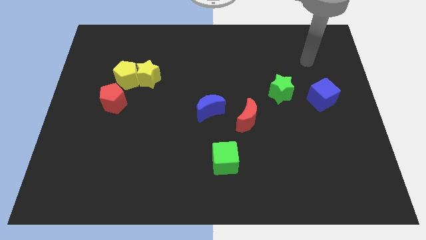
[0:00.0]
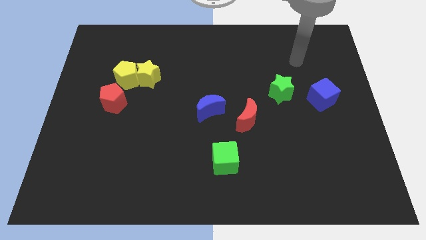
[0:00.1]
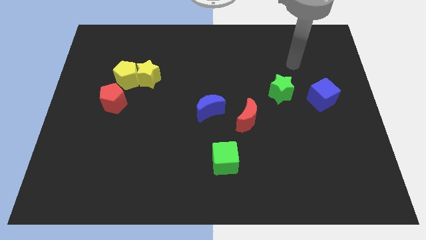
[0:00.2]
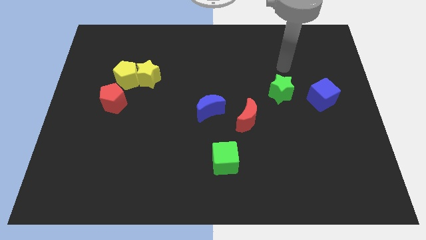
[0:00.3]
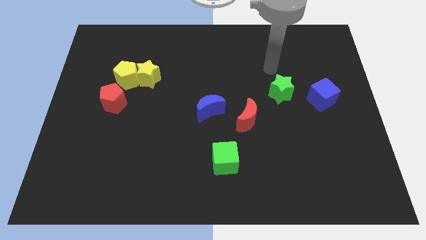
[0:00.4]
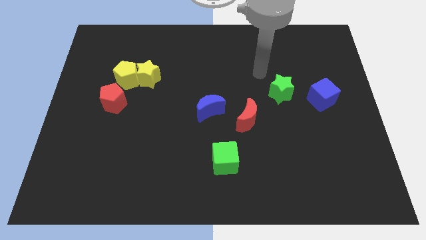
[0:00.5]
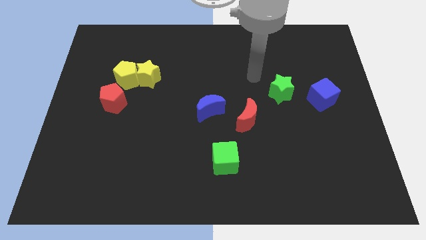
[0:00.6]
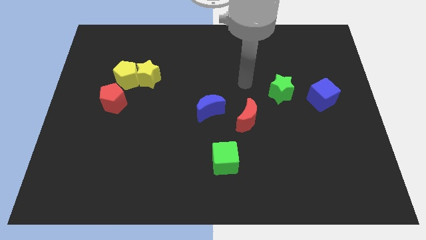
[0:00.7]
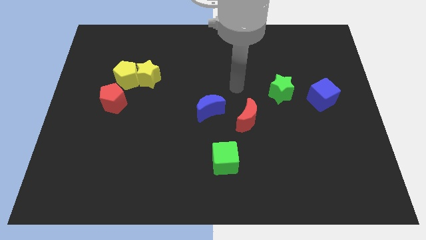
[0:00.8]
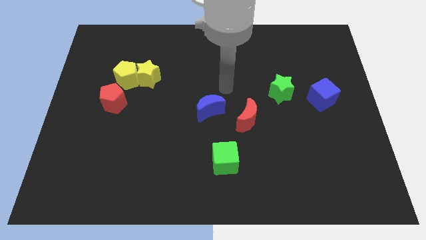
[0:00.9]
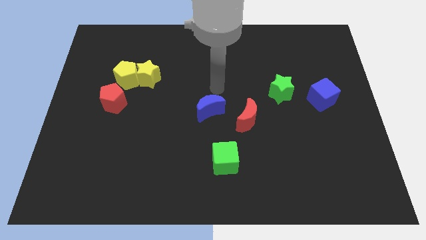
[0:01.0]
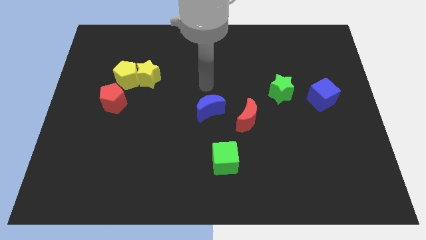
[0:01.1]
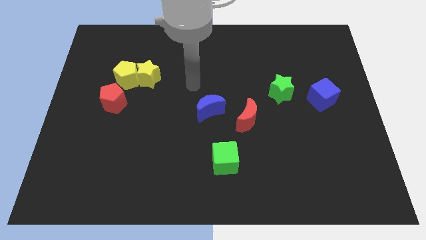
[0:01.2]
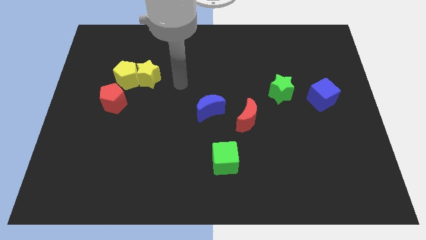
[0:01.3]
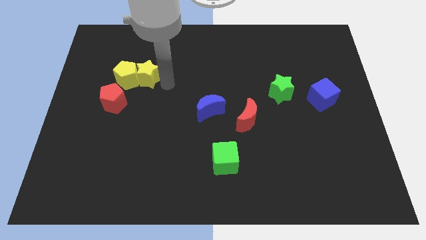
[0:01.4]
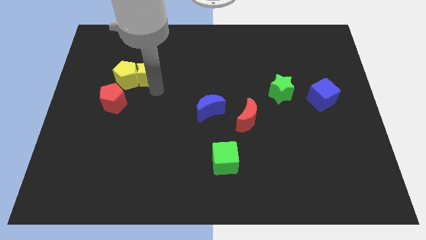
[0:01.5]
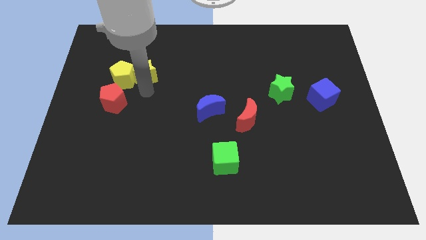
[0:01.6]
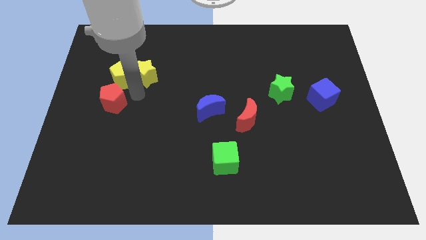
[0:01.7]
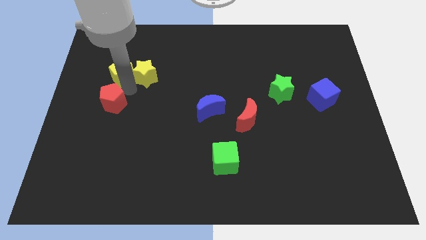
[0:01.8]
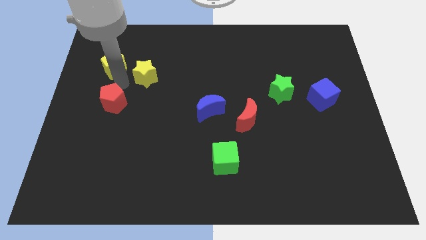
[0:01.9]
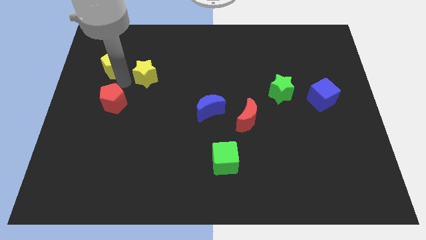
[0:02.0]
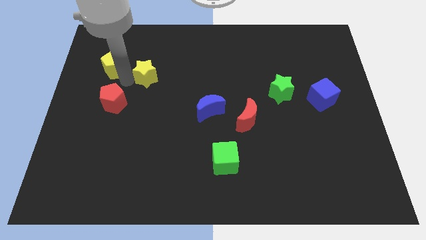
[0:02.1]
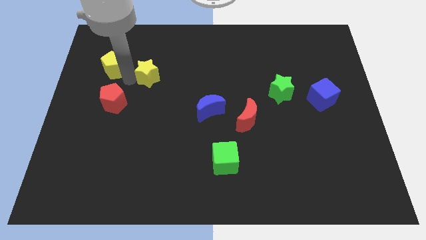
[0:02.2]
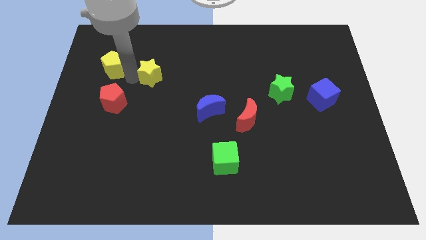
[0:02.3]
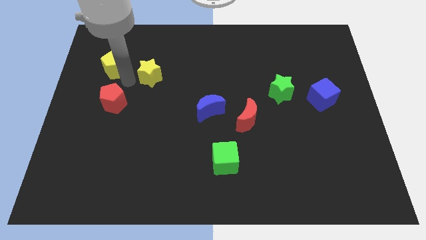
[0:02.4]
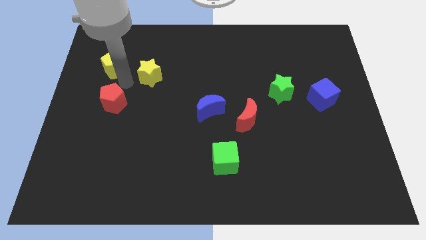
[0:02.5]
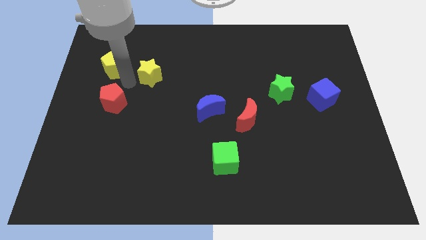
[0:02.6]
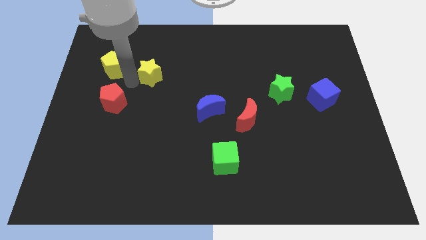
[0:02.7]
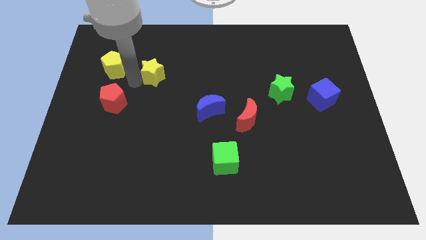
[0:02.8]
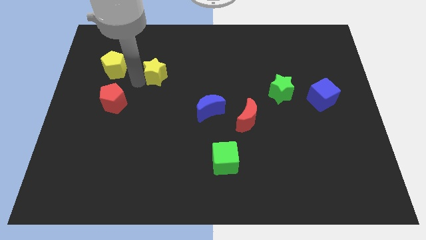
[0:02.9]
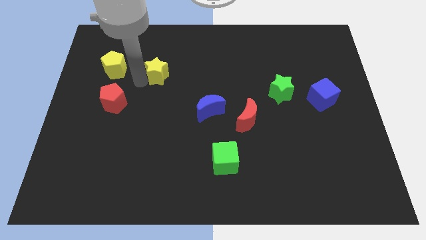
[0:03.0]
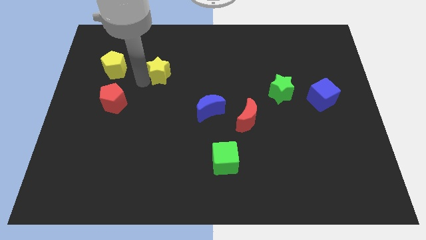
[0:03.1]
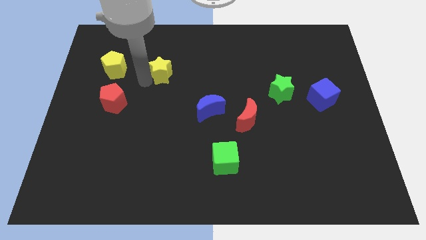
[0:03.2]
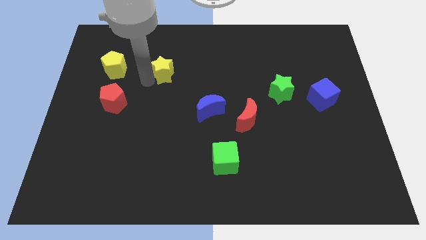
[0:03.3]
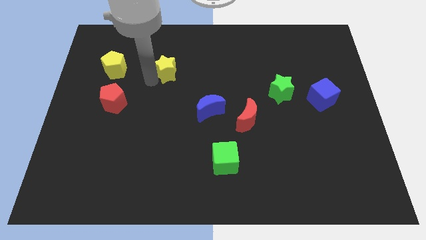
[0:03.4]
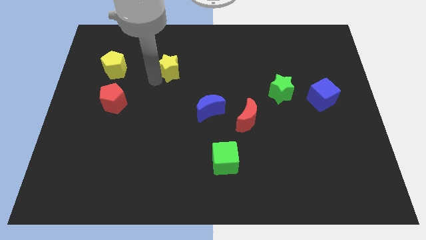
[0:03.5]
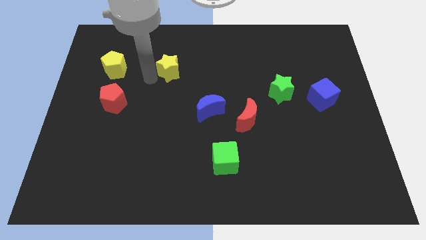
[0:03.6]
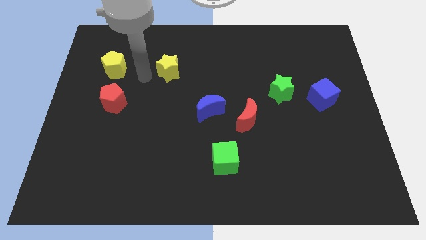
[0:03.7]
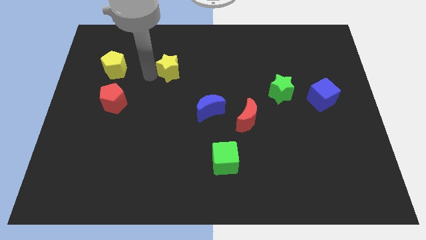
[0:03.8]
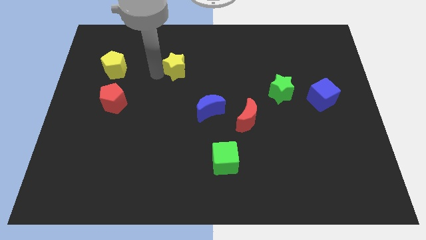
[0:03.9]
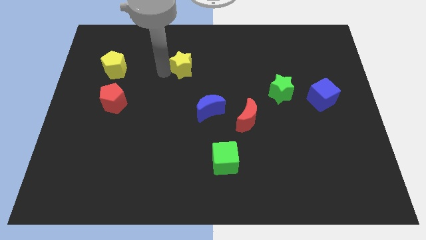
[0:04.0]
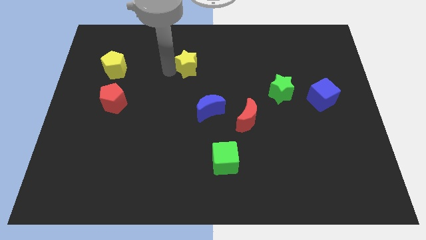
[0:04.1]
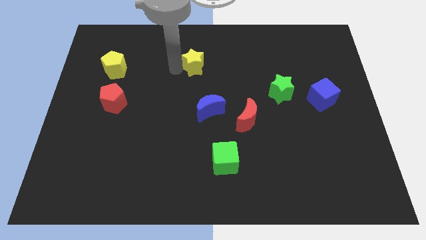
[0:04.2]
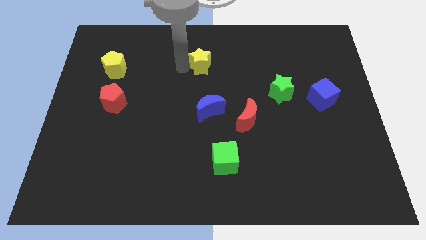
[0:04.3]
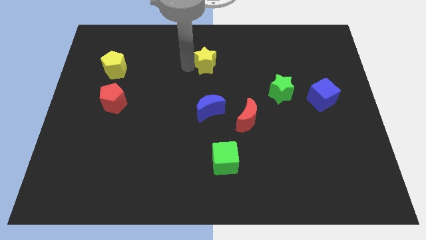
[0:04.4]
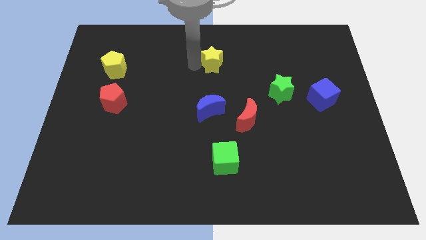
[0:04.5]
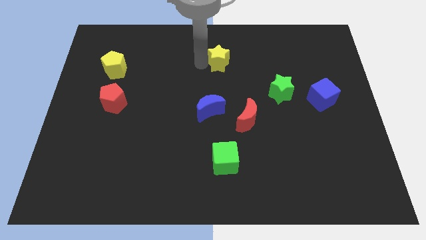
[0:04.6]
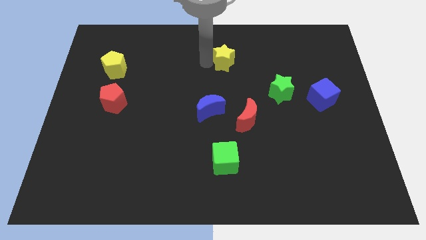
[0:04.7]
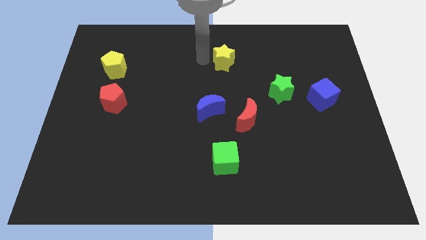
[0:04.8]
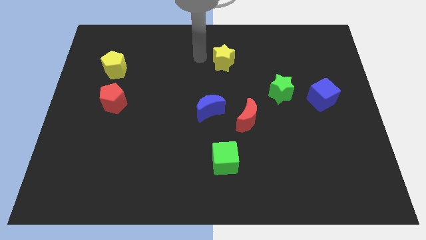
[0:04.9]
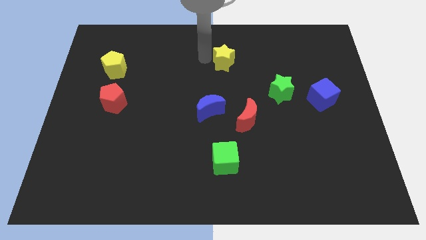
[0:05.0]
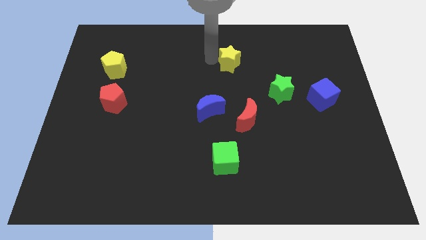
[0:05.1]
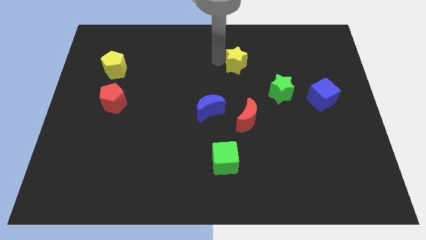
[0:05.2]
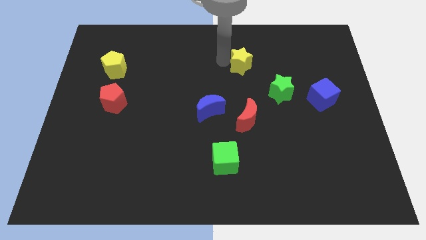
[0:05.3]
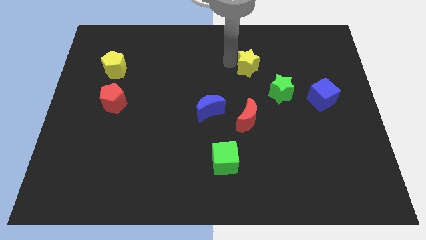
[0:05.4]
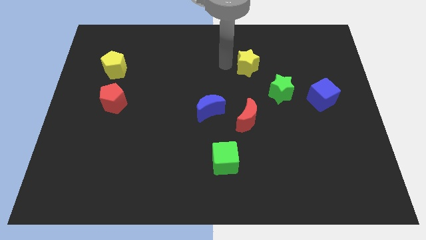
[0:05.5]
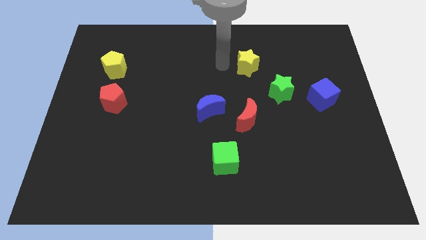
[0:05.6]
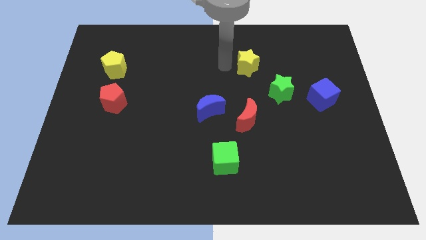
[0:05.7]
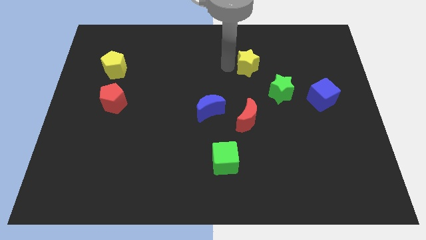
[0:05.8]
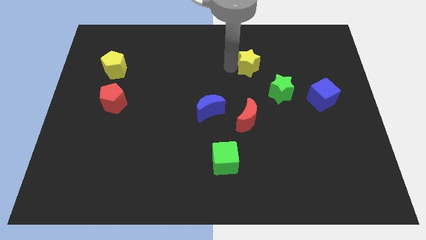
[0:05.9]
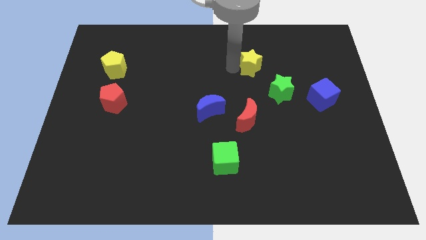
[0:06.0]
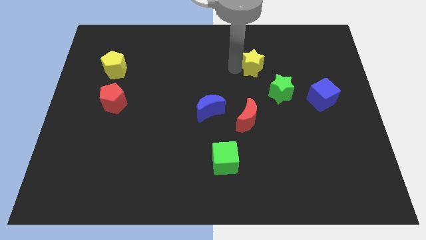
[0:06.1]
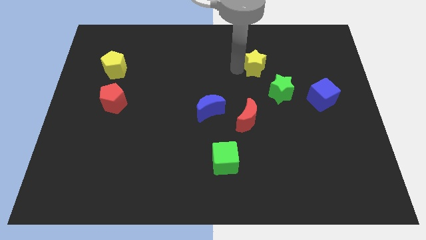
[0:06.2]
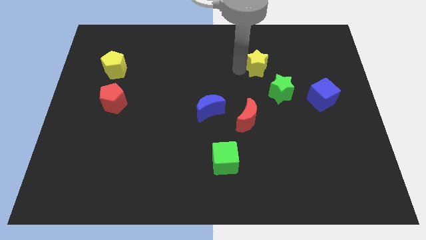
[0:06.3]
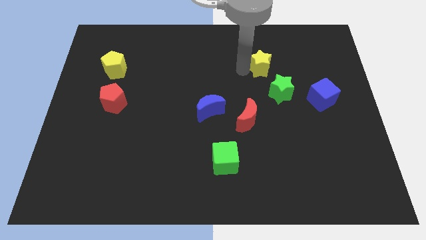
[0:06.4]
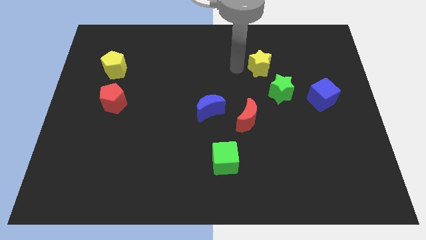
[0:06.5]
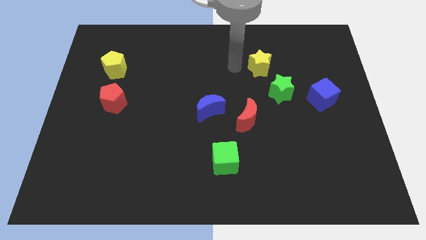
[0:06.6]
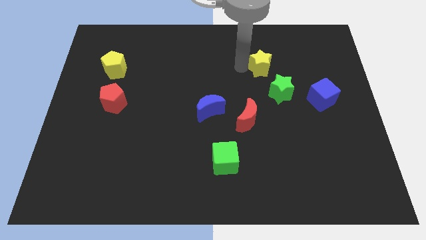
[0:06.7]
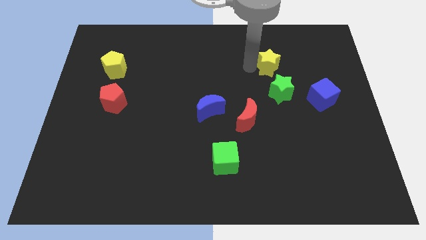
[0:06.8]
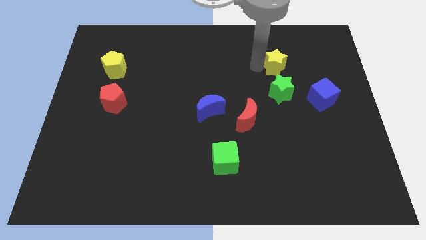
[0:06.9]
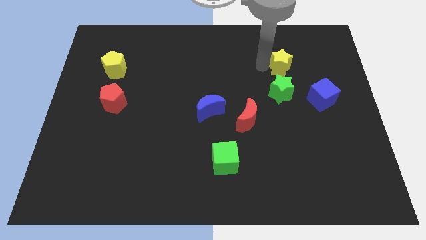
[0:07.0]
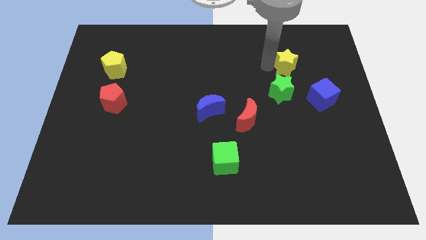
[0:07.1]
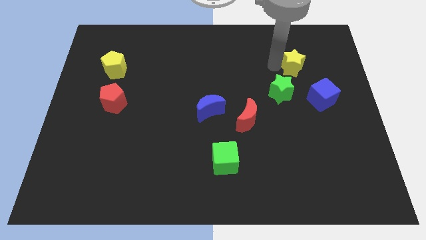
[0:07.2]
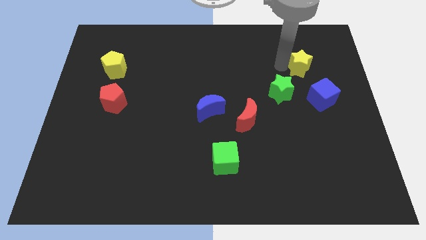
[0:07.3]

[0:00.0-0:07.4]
push the yellow star to the top side of the blue cube
